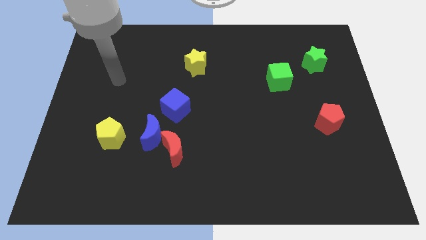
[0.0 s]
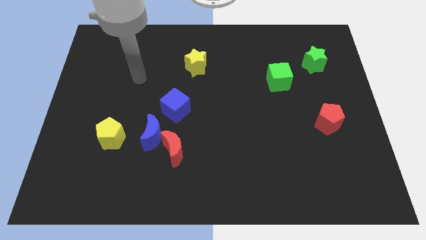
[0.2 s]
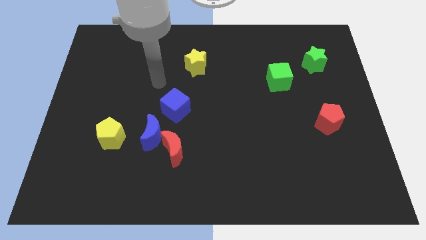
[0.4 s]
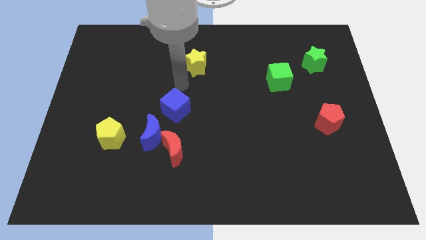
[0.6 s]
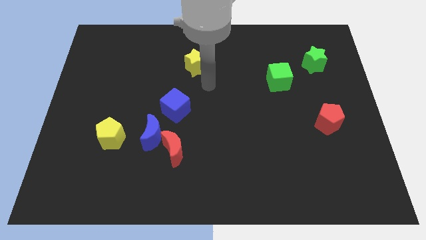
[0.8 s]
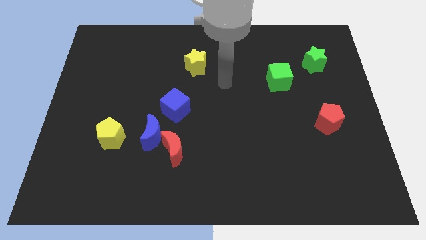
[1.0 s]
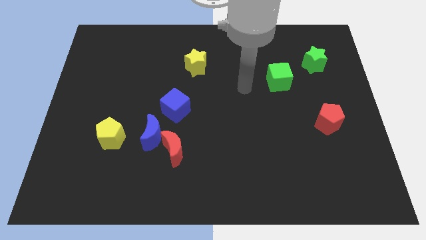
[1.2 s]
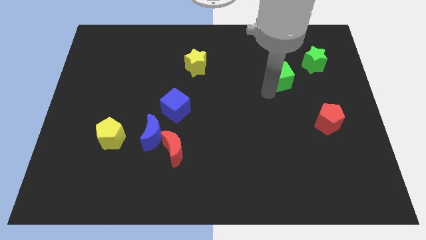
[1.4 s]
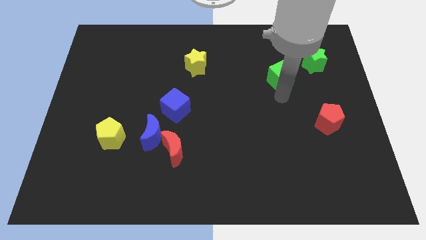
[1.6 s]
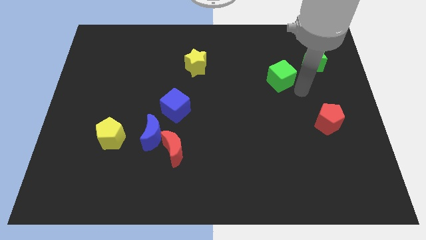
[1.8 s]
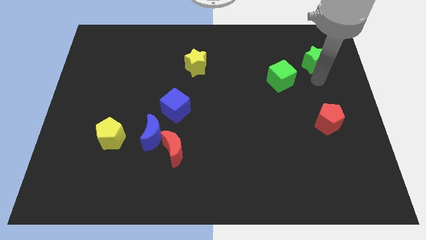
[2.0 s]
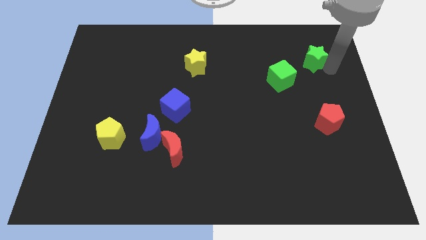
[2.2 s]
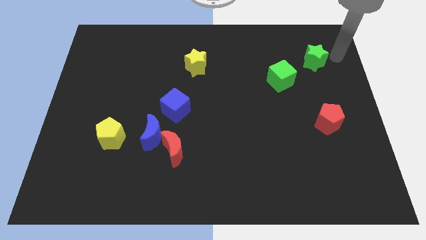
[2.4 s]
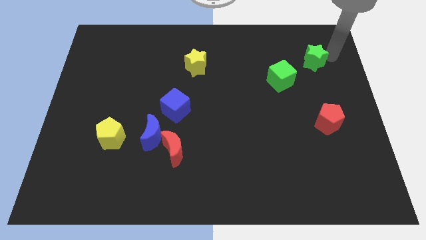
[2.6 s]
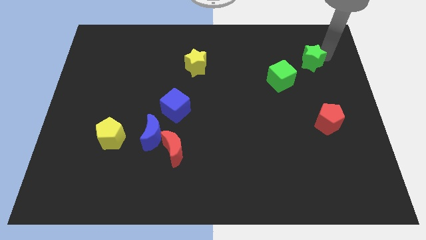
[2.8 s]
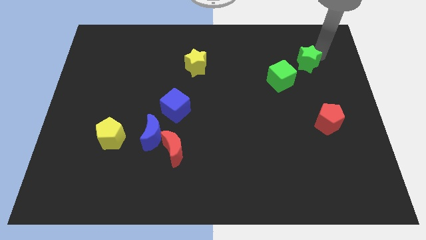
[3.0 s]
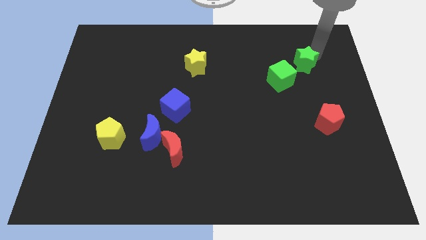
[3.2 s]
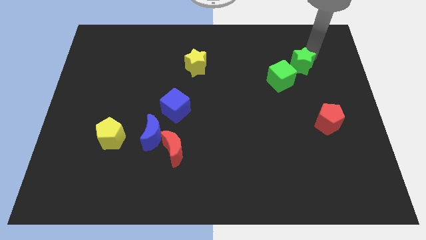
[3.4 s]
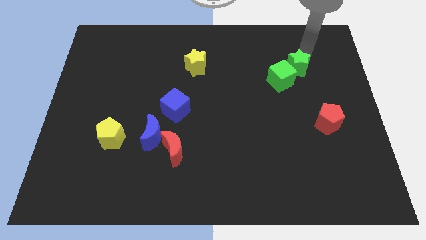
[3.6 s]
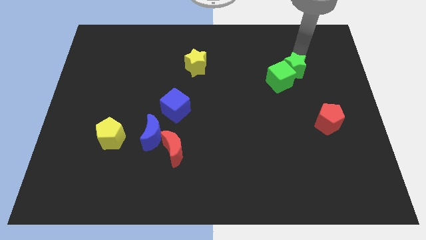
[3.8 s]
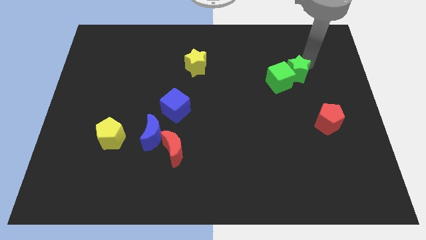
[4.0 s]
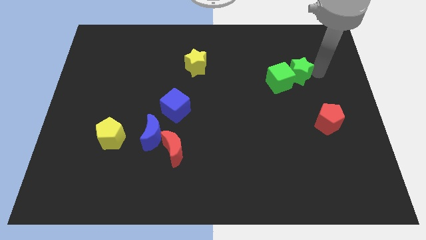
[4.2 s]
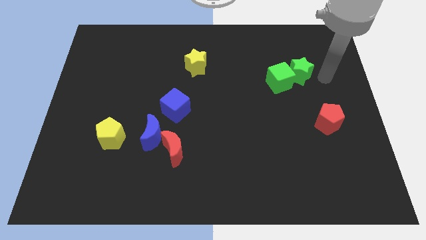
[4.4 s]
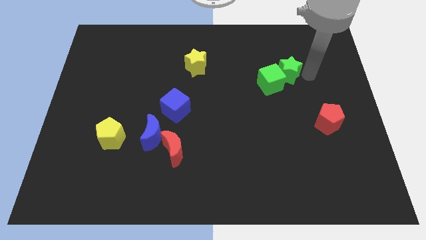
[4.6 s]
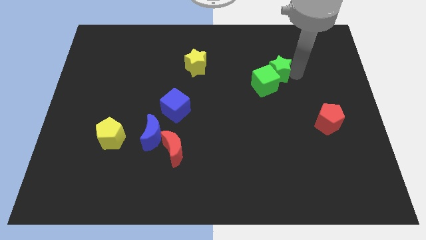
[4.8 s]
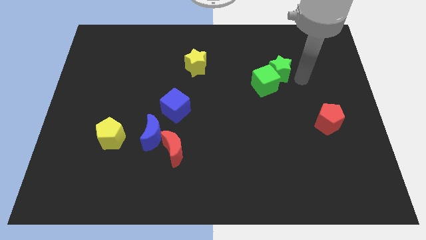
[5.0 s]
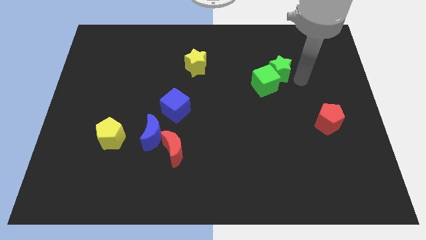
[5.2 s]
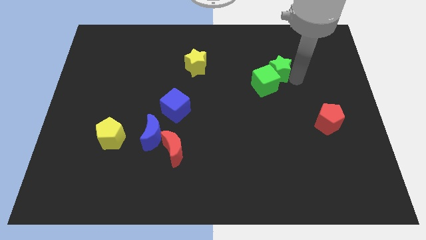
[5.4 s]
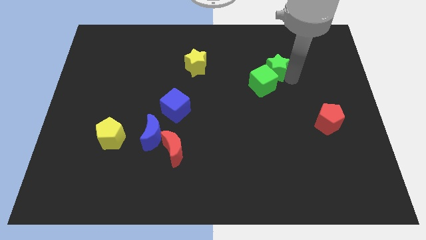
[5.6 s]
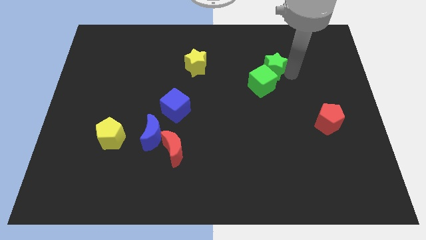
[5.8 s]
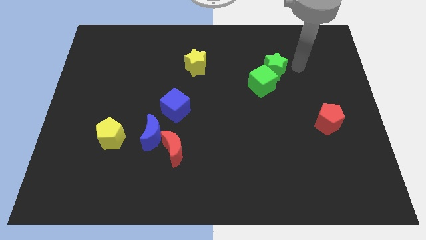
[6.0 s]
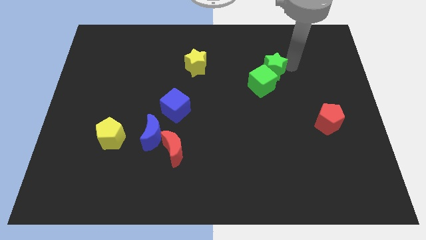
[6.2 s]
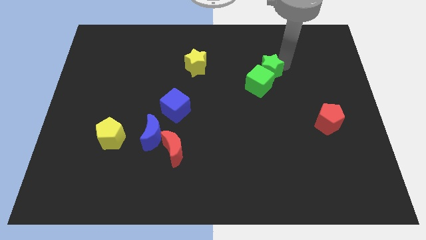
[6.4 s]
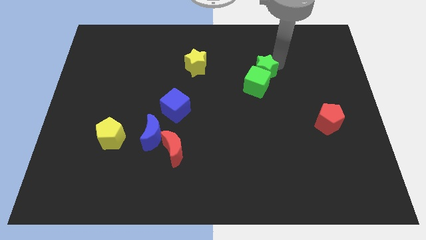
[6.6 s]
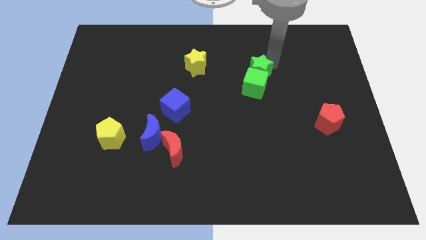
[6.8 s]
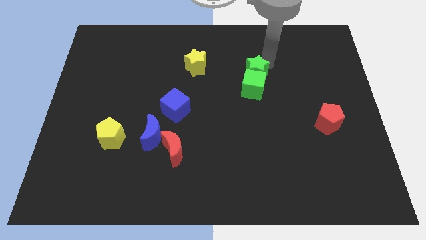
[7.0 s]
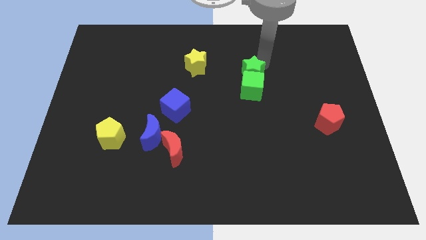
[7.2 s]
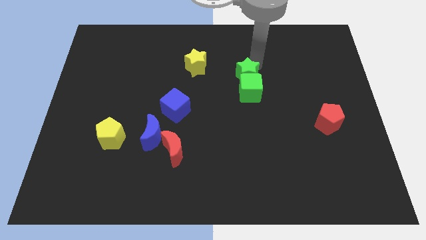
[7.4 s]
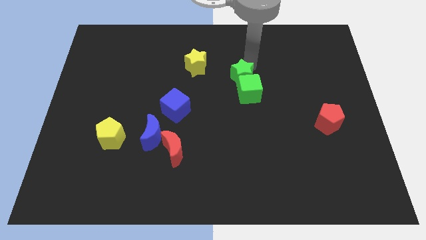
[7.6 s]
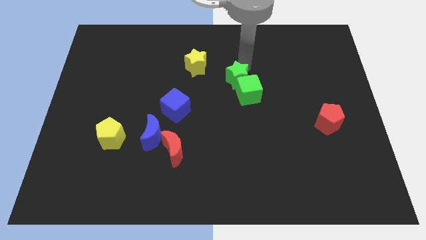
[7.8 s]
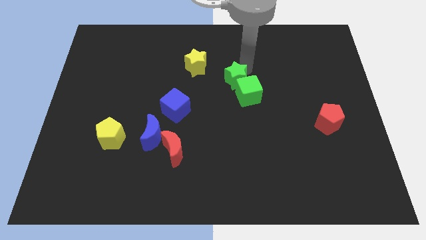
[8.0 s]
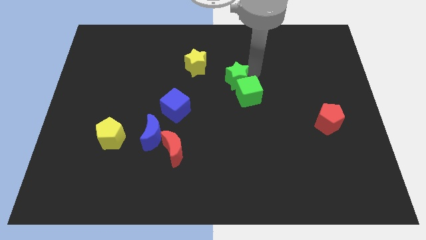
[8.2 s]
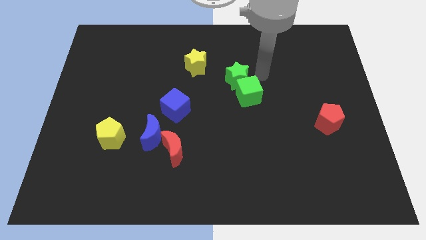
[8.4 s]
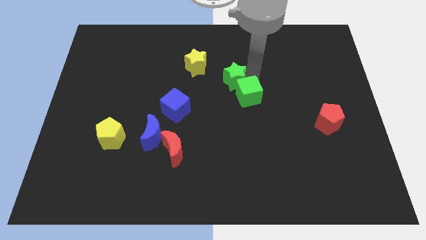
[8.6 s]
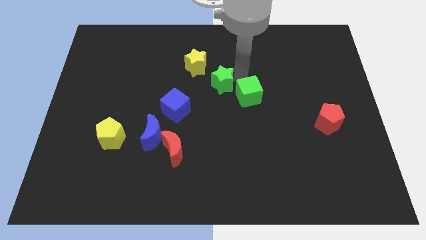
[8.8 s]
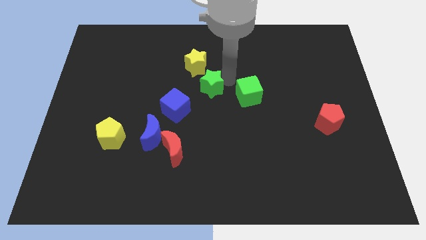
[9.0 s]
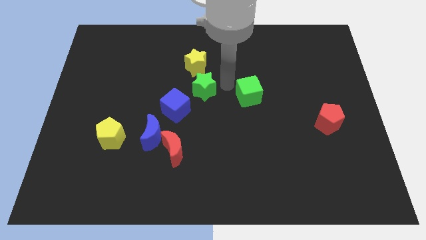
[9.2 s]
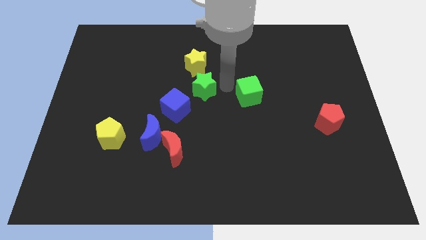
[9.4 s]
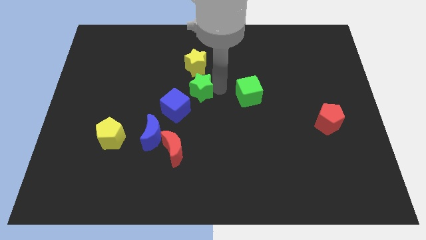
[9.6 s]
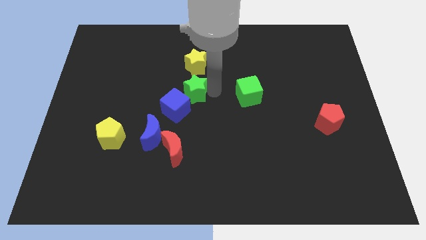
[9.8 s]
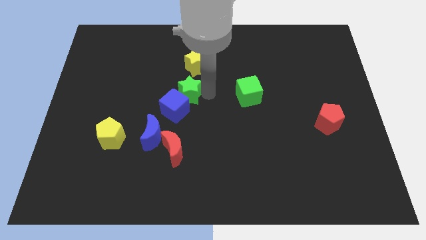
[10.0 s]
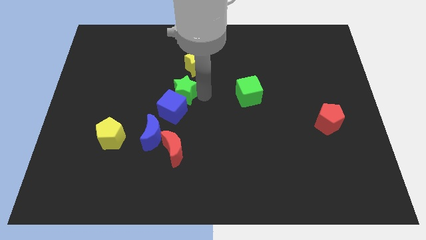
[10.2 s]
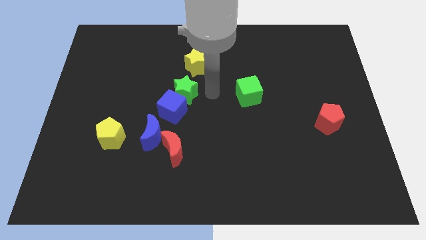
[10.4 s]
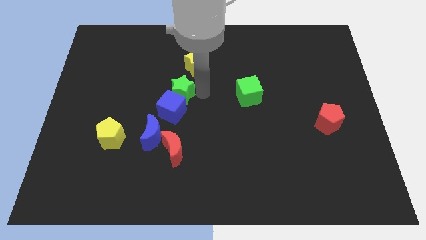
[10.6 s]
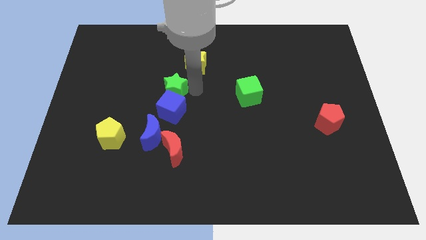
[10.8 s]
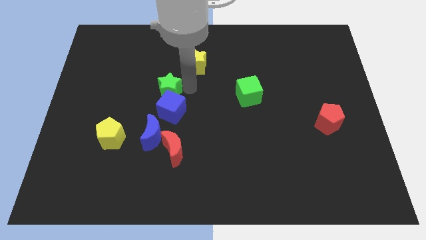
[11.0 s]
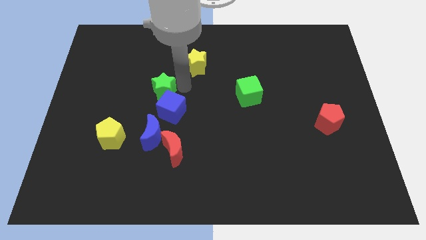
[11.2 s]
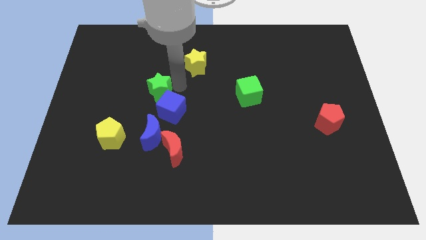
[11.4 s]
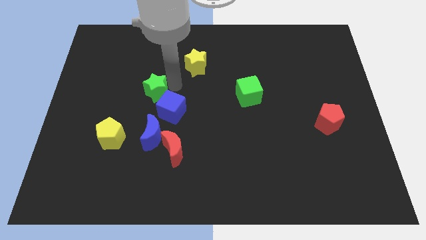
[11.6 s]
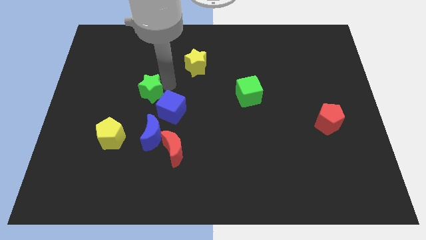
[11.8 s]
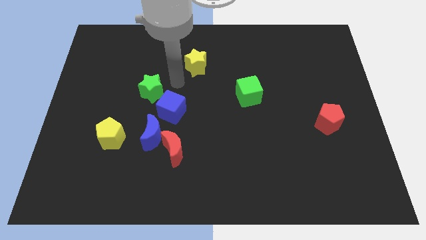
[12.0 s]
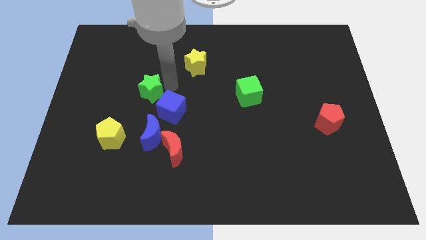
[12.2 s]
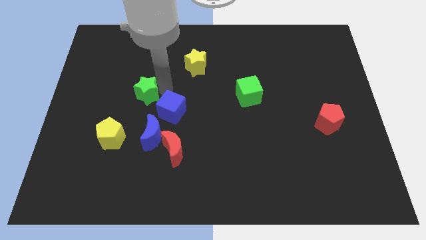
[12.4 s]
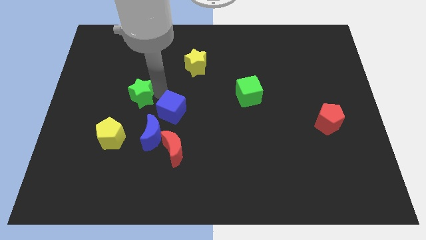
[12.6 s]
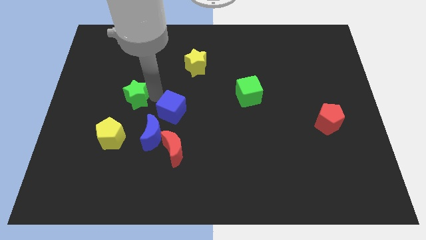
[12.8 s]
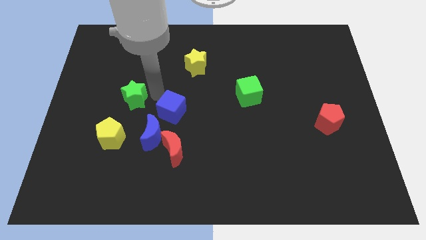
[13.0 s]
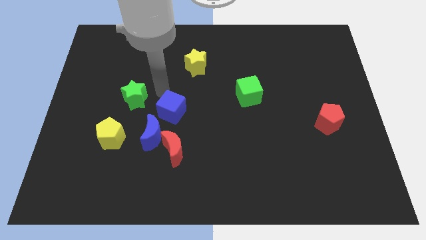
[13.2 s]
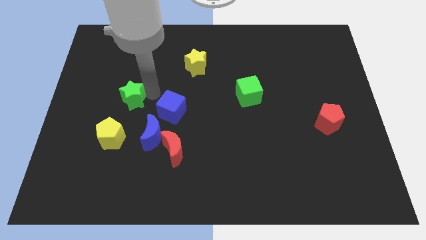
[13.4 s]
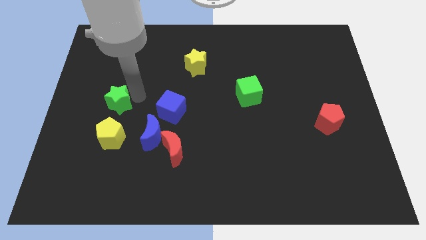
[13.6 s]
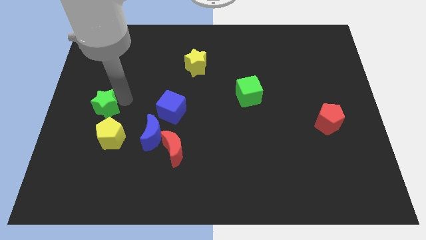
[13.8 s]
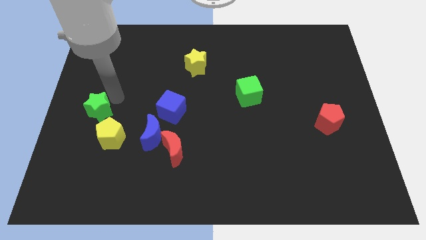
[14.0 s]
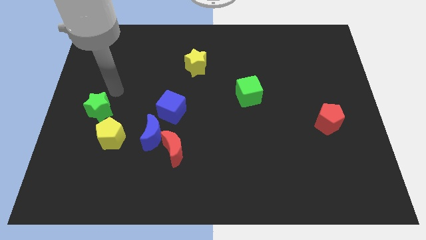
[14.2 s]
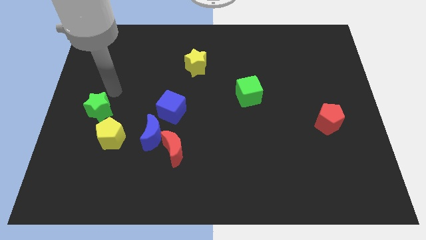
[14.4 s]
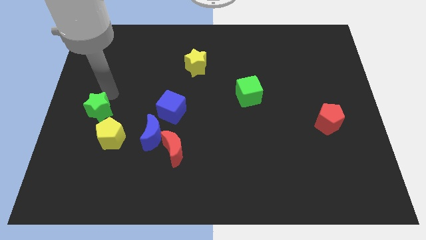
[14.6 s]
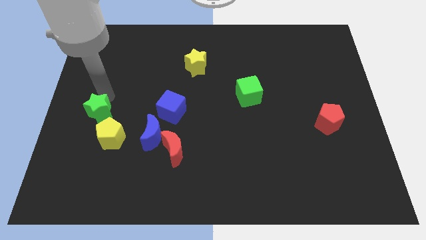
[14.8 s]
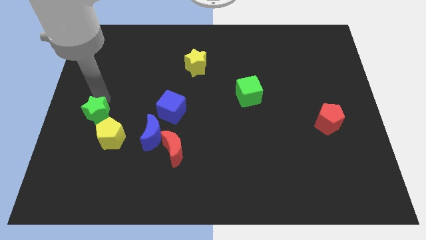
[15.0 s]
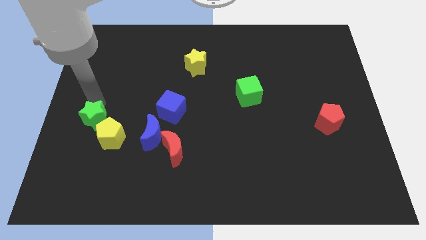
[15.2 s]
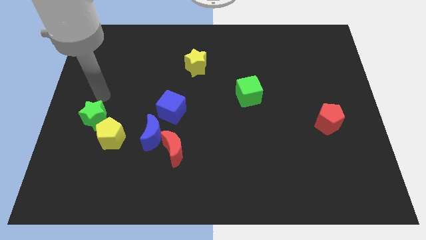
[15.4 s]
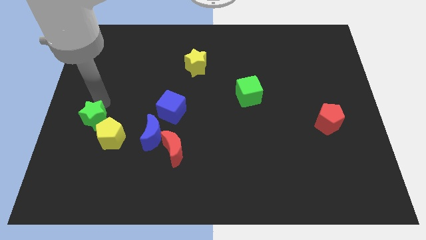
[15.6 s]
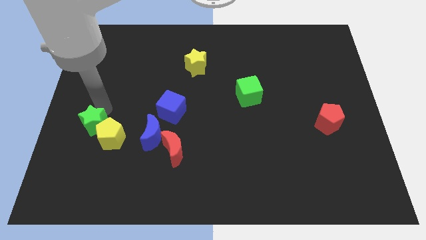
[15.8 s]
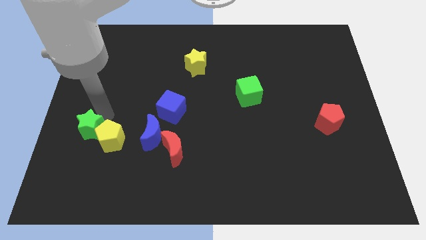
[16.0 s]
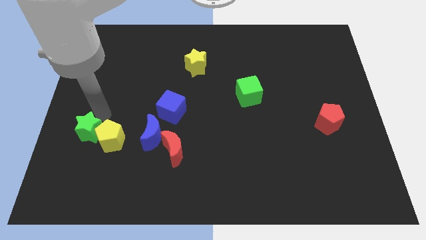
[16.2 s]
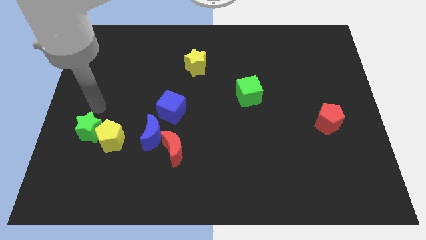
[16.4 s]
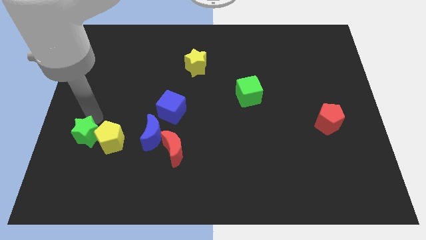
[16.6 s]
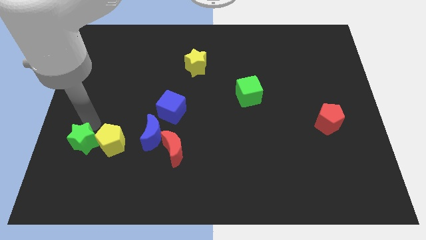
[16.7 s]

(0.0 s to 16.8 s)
move the green star diagonally down and to the left of the yellow pentagon
